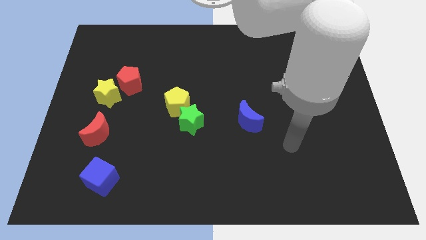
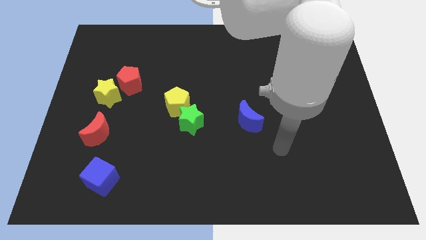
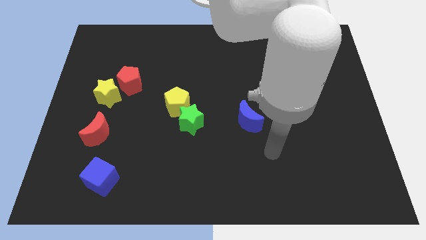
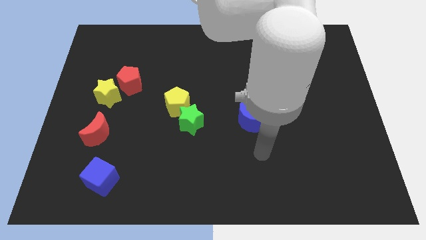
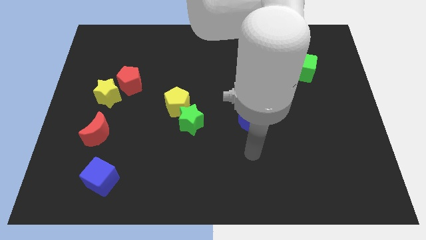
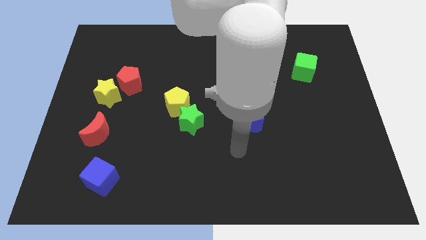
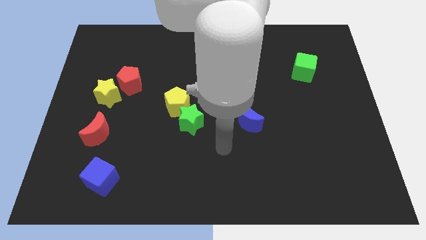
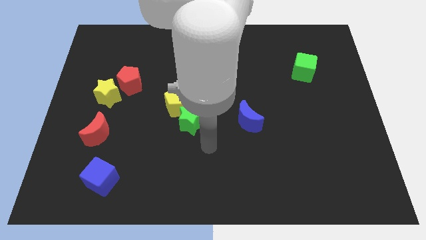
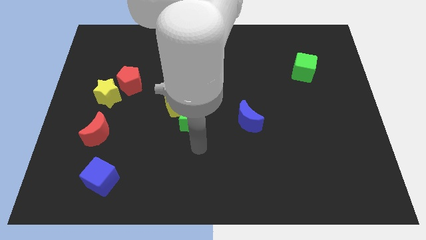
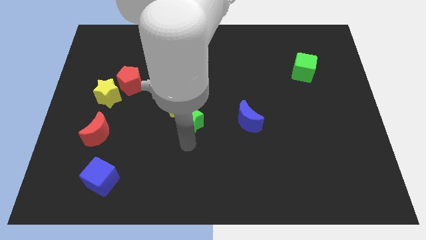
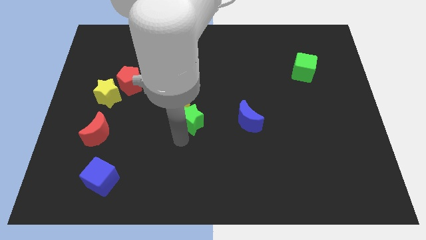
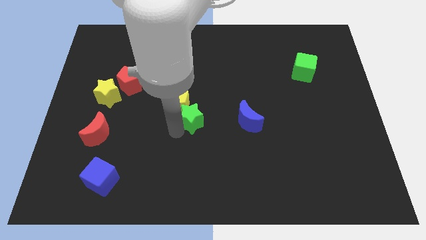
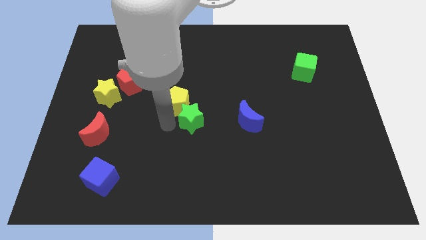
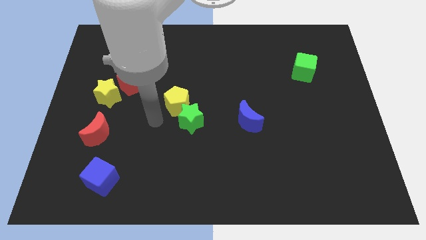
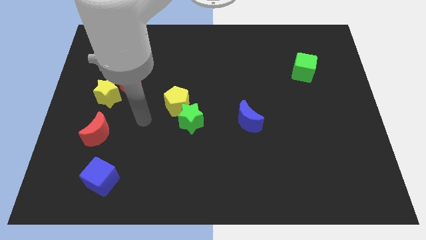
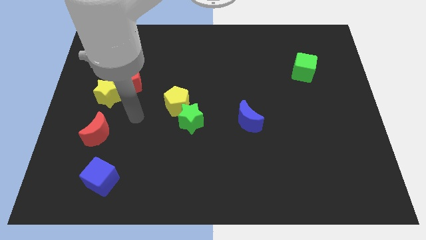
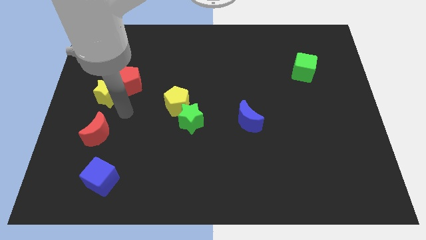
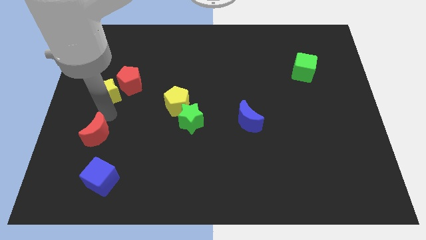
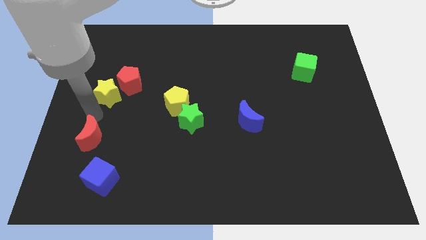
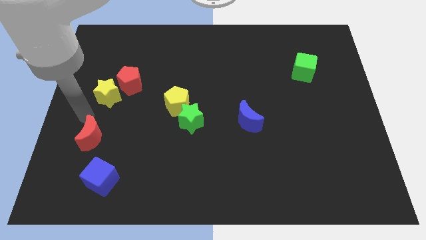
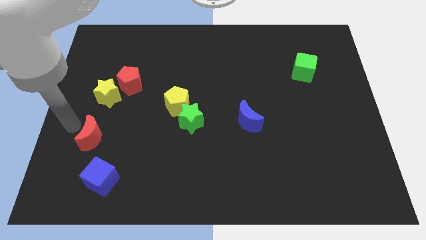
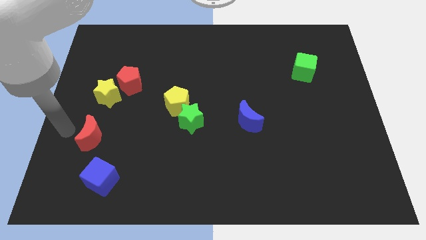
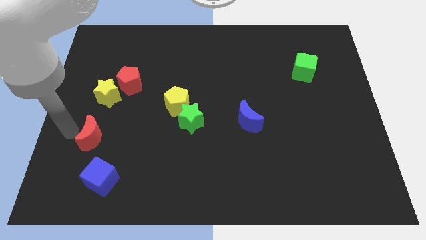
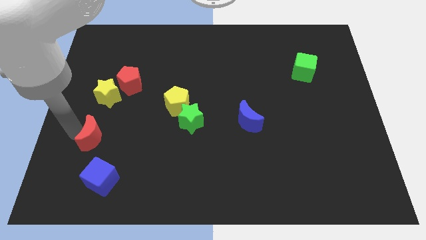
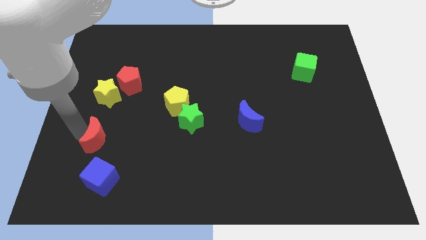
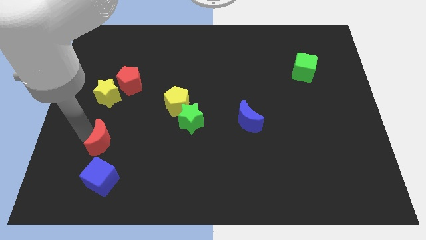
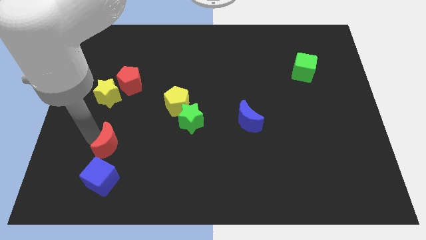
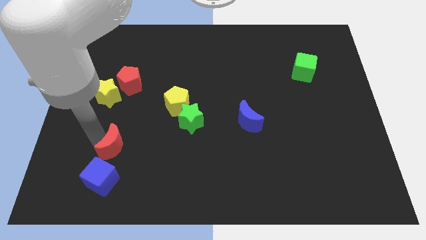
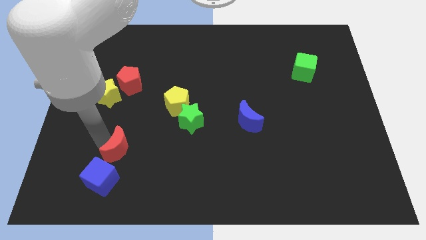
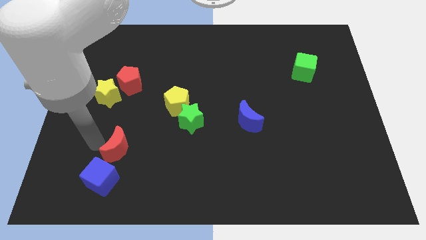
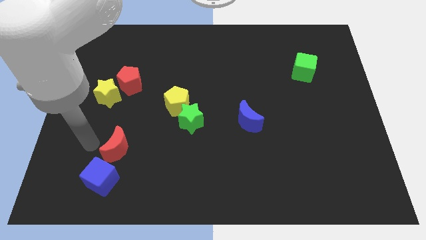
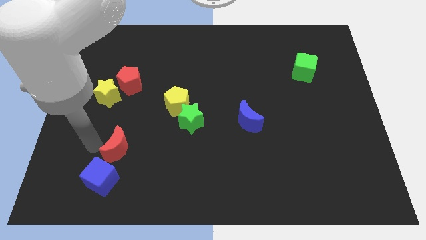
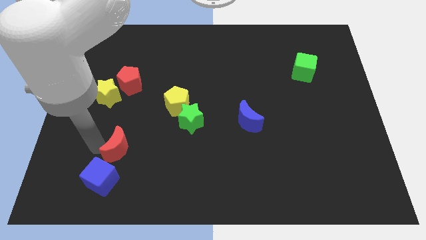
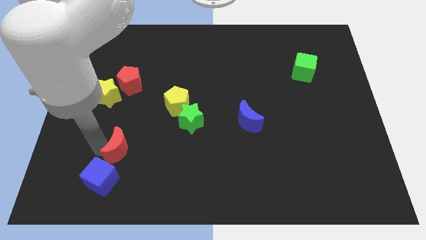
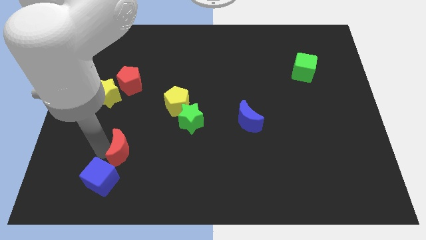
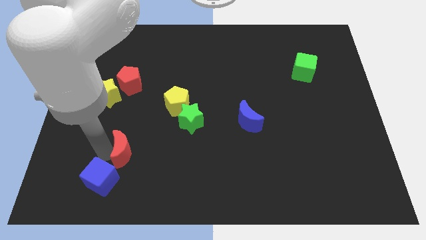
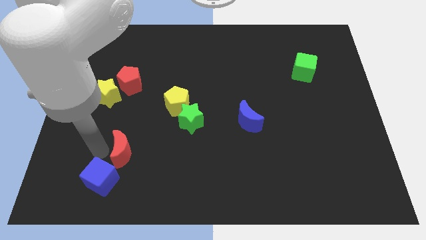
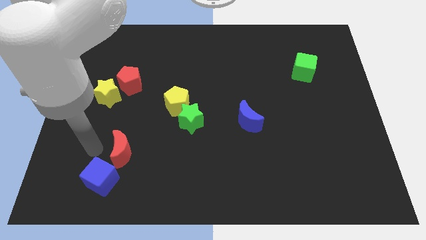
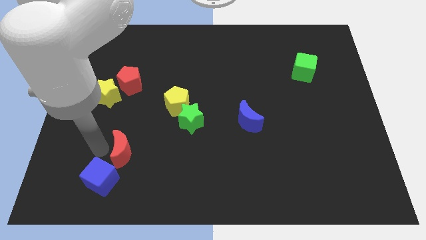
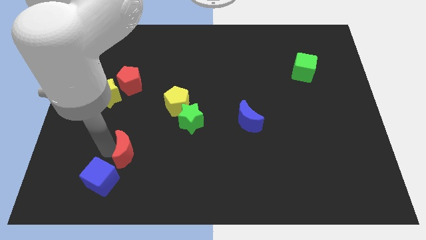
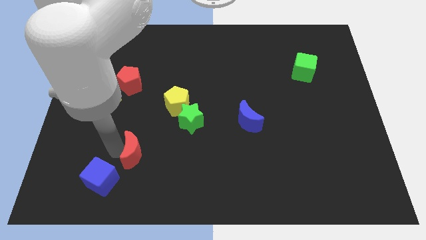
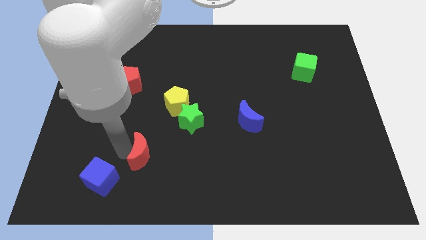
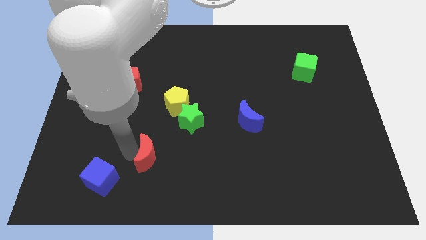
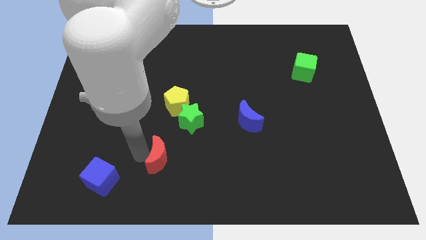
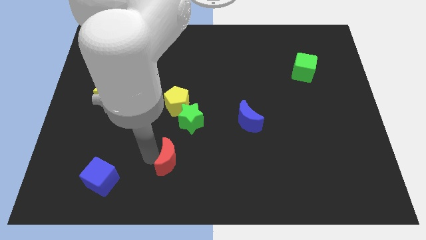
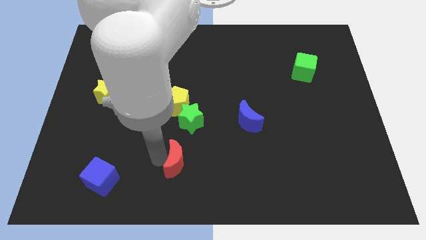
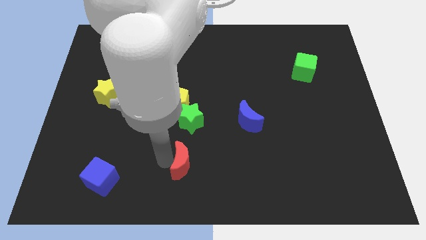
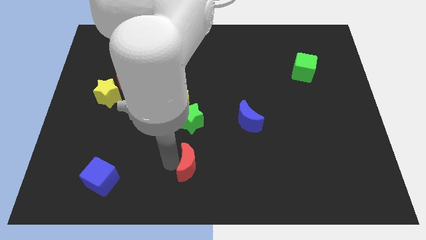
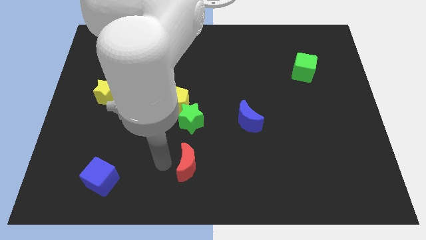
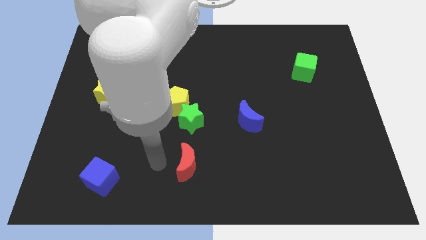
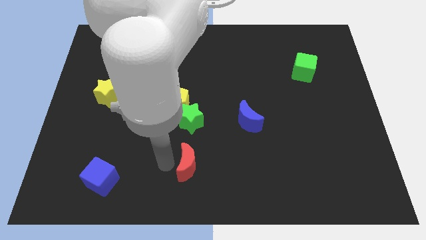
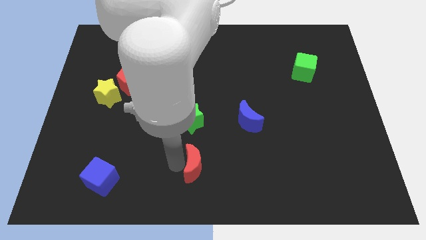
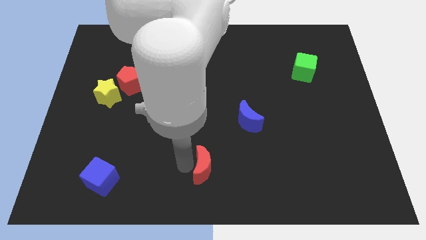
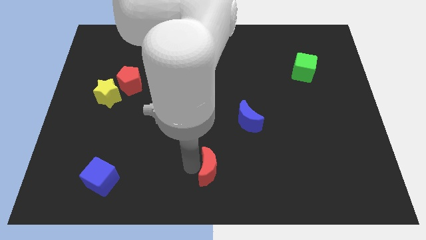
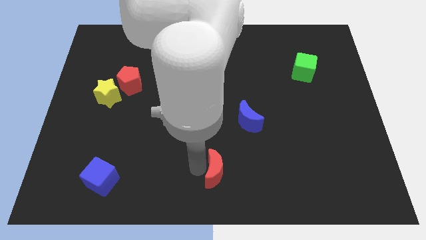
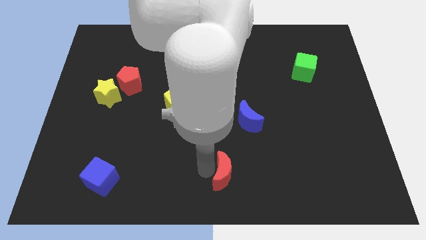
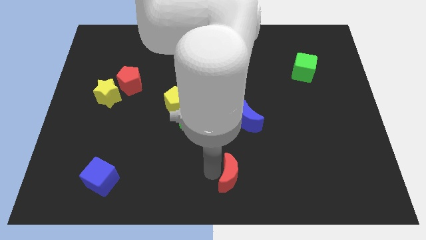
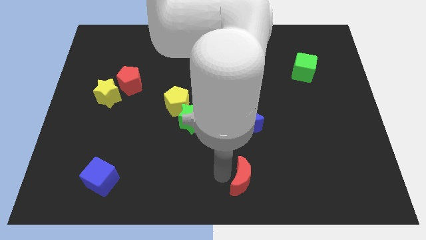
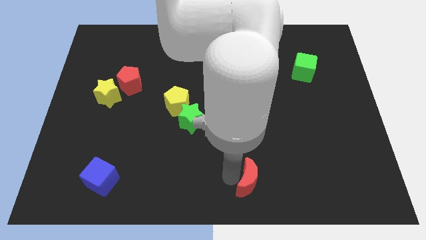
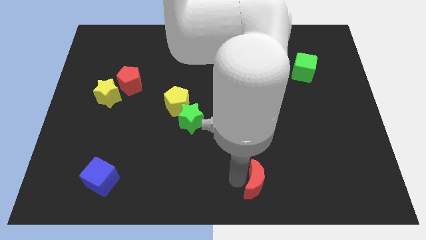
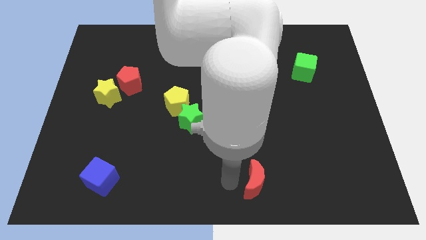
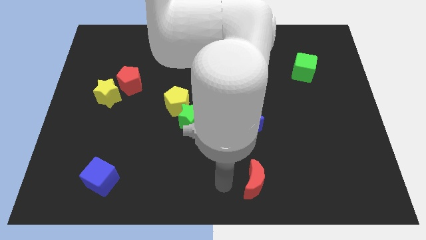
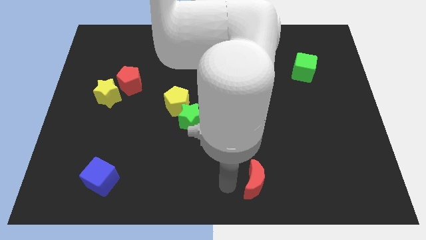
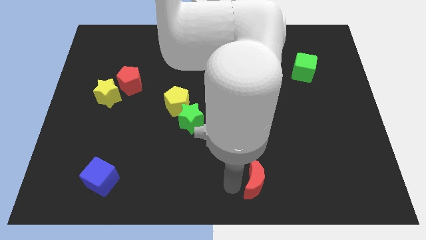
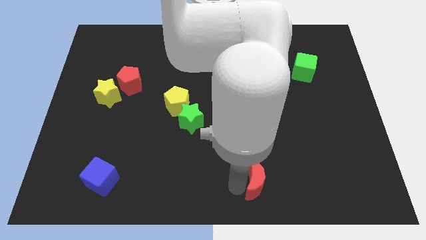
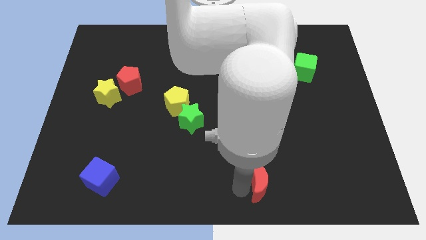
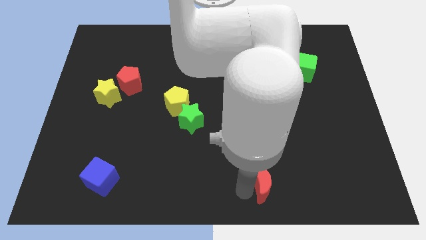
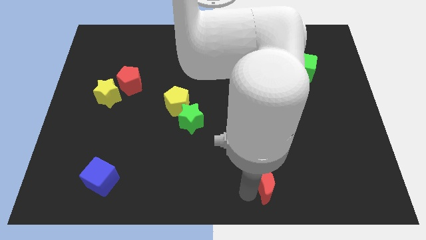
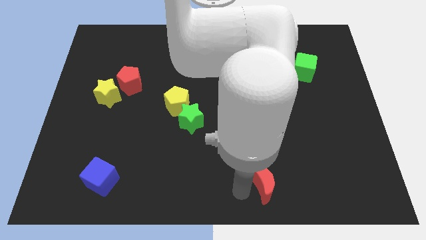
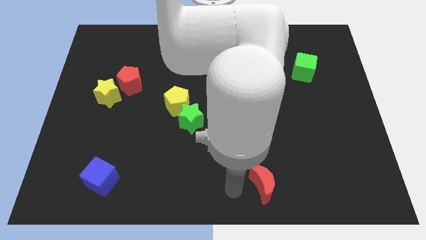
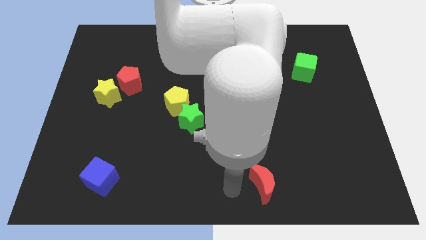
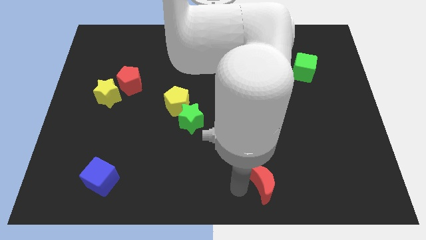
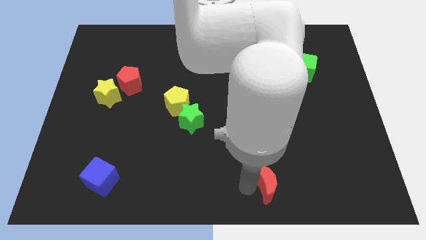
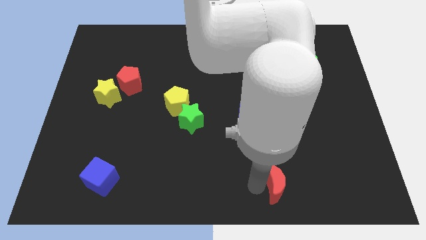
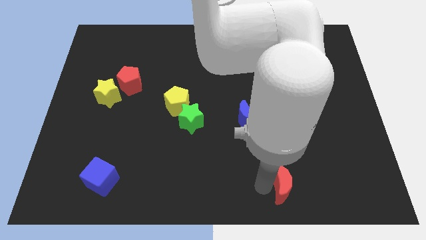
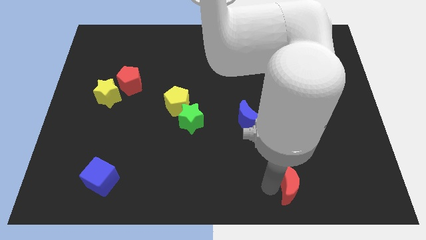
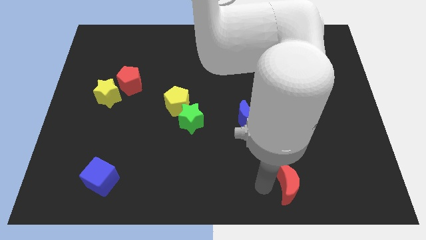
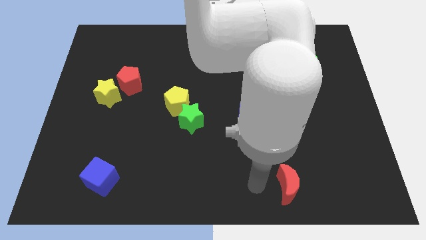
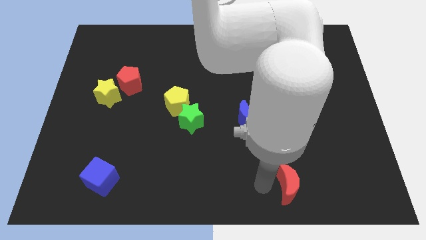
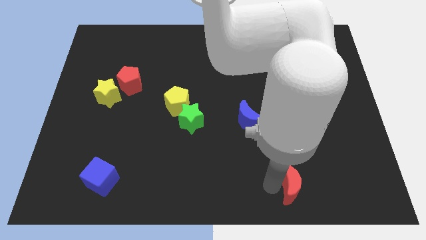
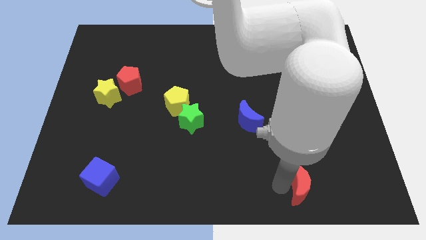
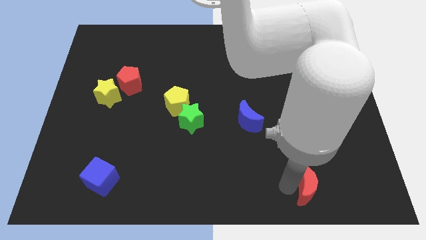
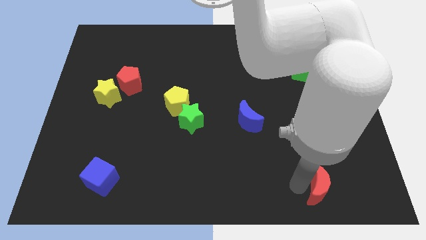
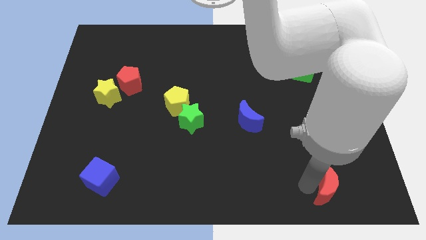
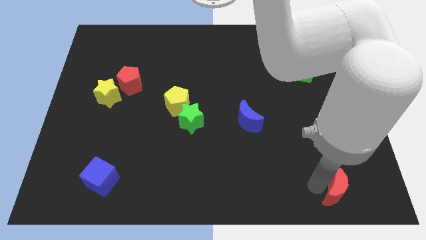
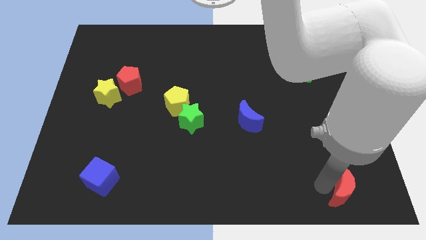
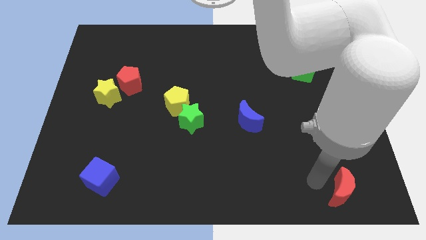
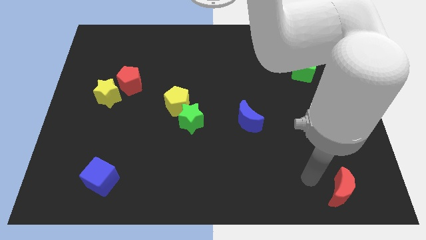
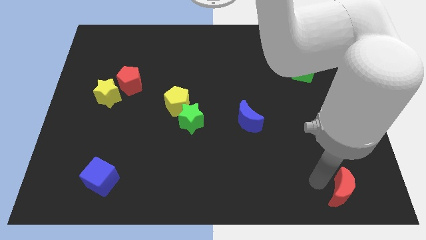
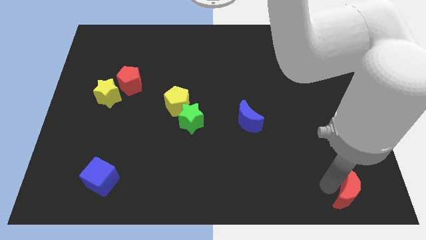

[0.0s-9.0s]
put the red moon to the lower right corner
